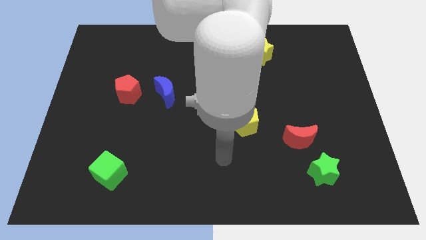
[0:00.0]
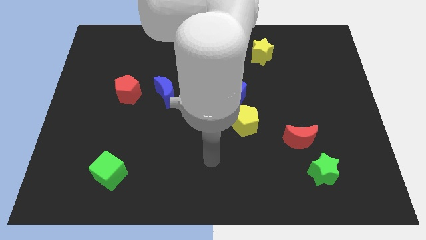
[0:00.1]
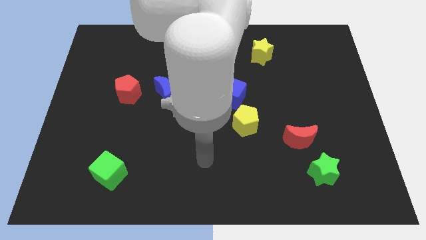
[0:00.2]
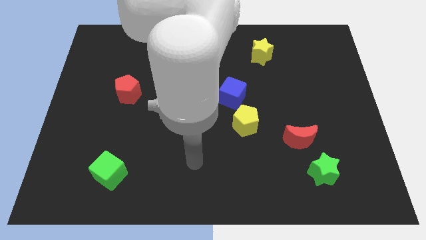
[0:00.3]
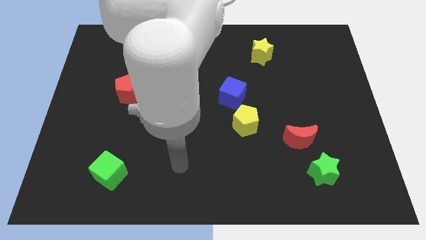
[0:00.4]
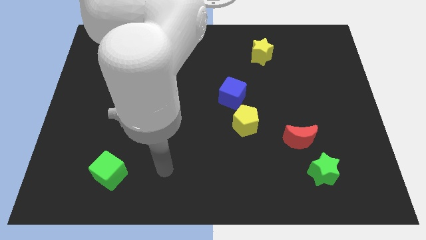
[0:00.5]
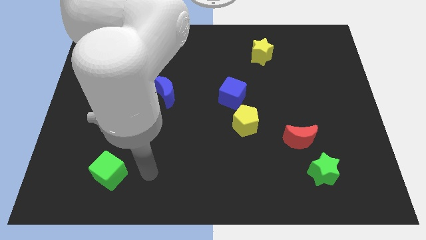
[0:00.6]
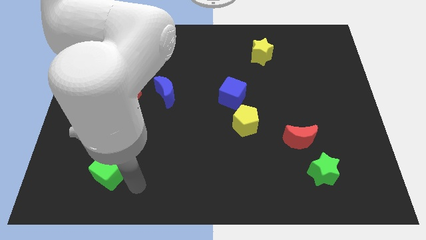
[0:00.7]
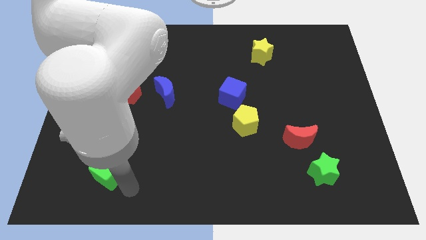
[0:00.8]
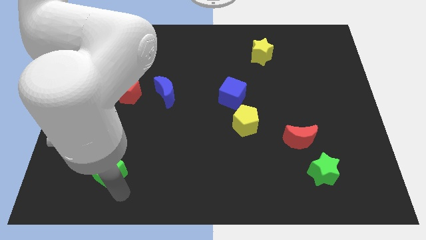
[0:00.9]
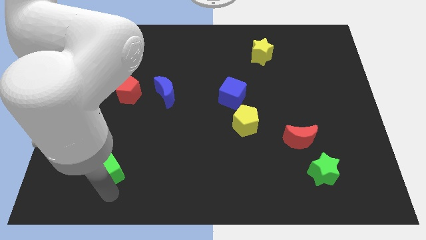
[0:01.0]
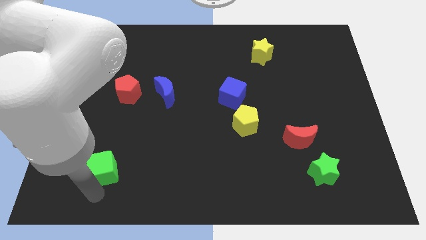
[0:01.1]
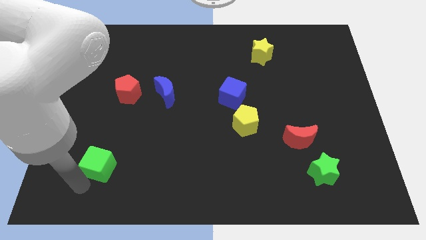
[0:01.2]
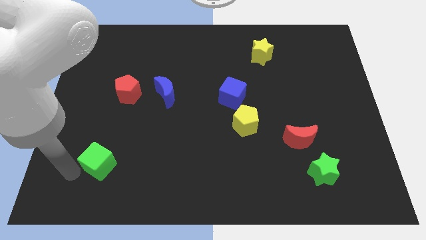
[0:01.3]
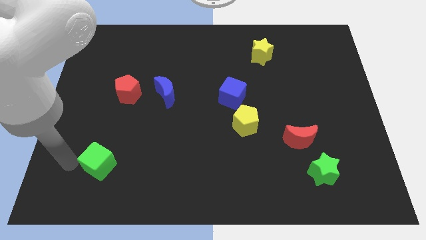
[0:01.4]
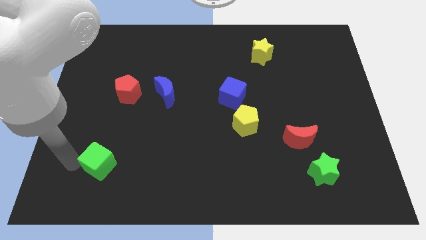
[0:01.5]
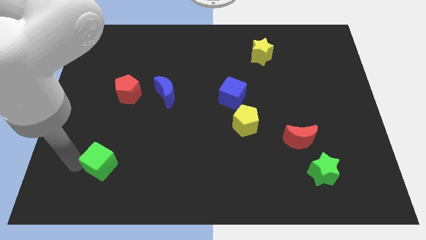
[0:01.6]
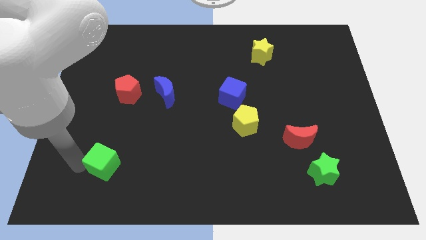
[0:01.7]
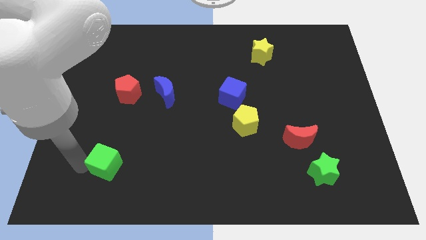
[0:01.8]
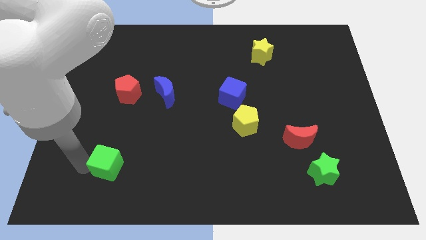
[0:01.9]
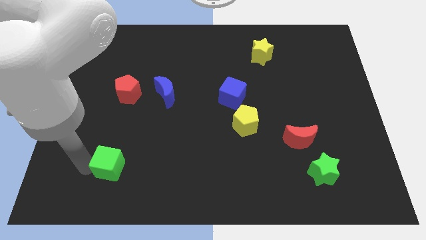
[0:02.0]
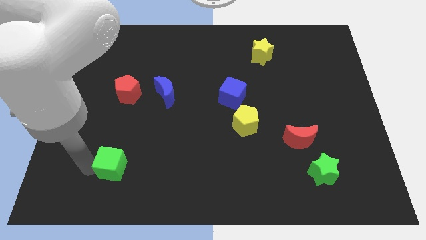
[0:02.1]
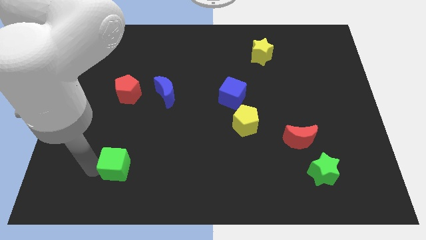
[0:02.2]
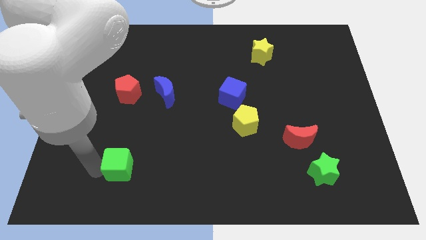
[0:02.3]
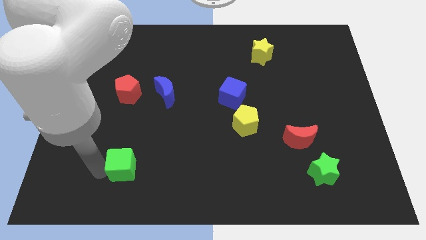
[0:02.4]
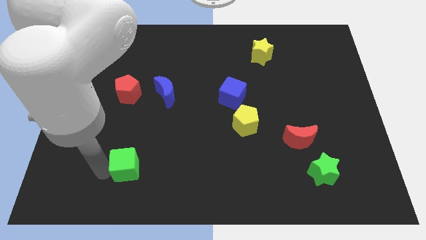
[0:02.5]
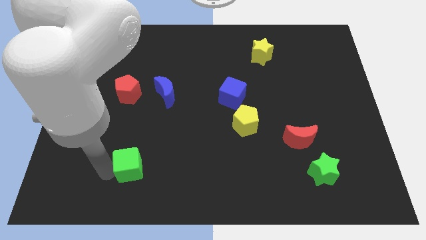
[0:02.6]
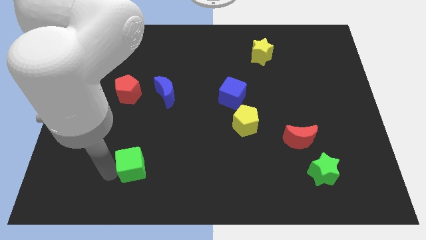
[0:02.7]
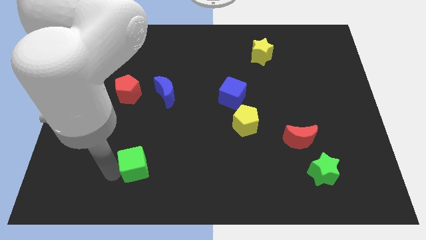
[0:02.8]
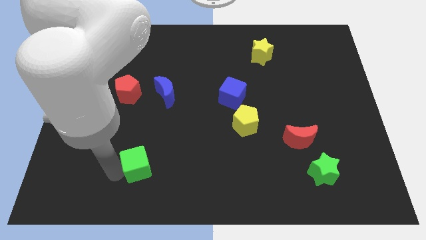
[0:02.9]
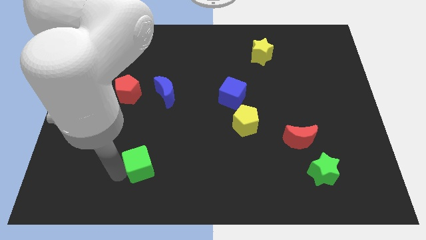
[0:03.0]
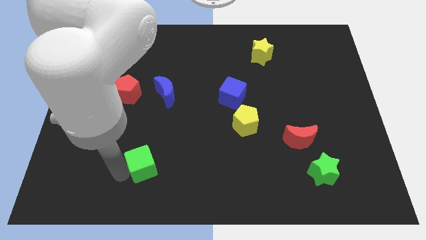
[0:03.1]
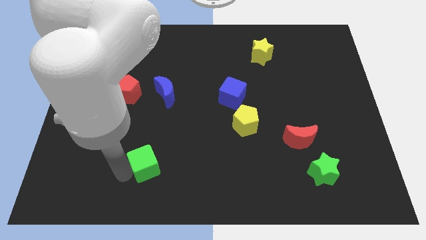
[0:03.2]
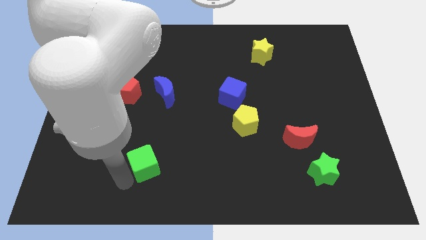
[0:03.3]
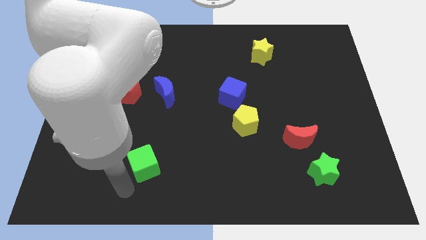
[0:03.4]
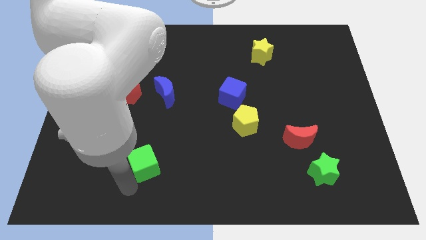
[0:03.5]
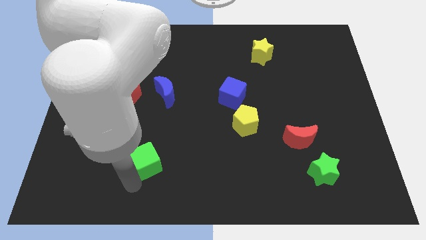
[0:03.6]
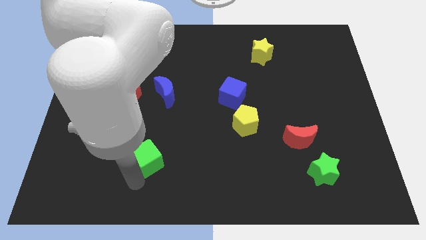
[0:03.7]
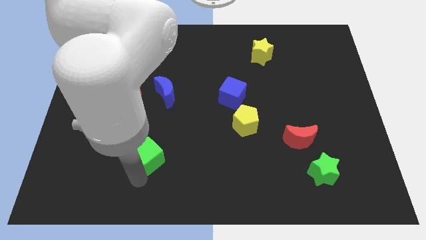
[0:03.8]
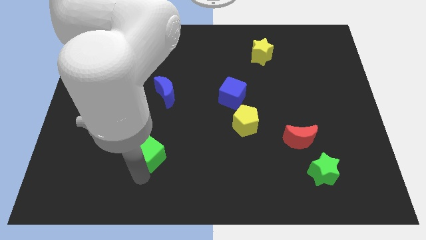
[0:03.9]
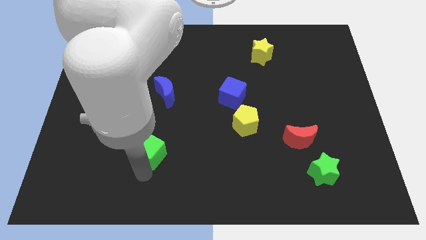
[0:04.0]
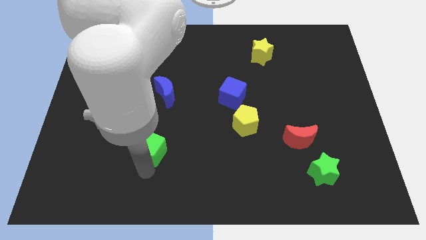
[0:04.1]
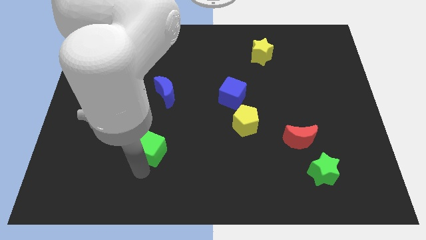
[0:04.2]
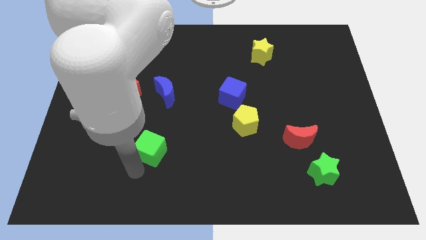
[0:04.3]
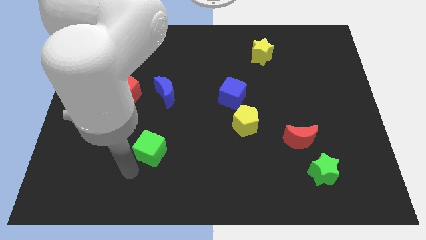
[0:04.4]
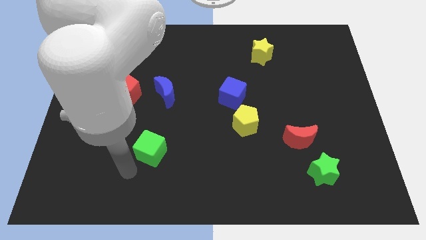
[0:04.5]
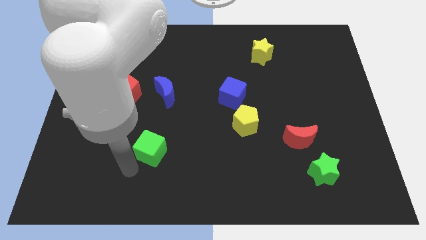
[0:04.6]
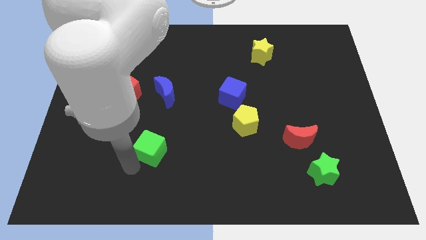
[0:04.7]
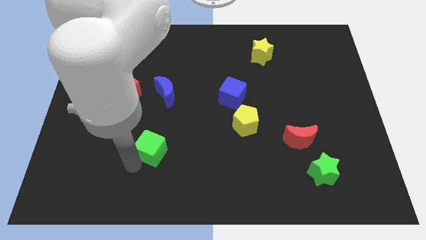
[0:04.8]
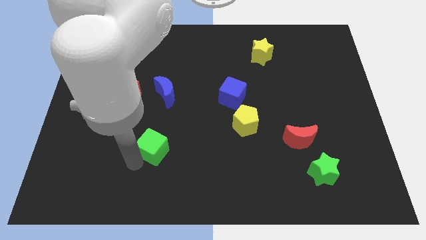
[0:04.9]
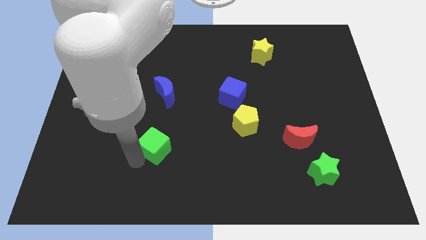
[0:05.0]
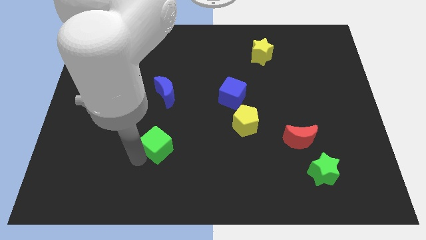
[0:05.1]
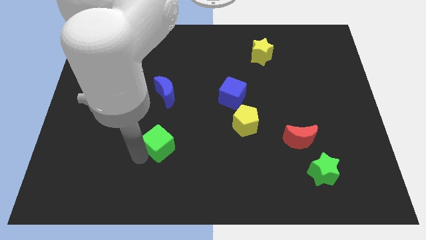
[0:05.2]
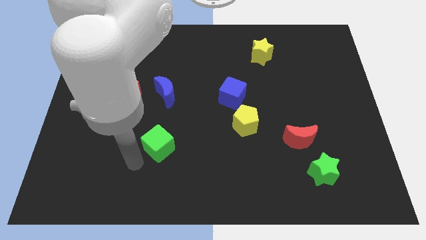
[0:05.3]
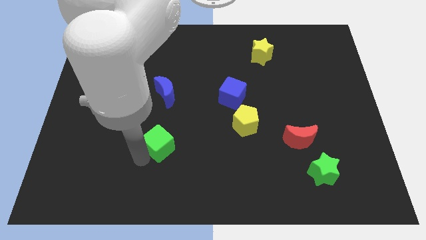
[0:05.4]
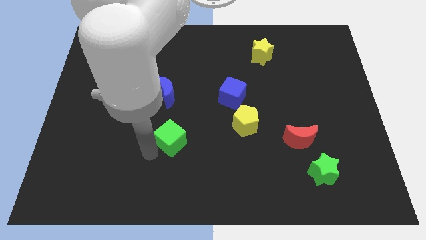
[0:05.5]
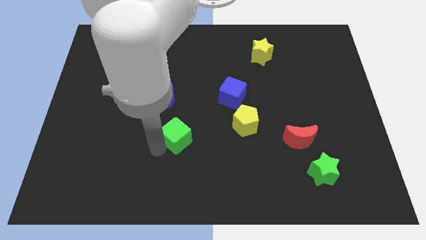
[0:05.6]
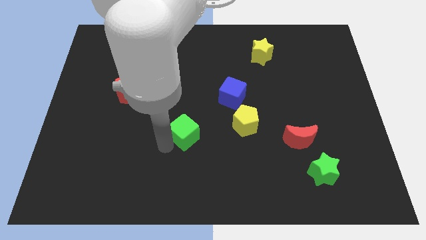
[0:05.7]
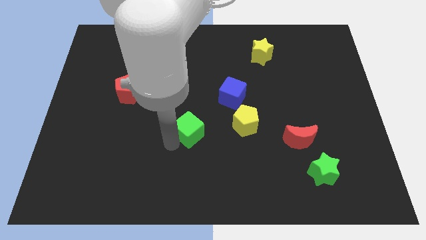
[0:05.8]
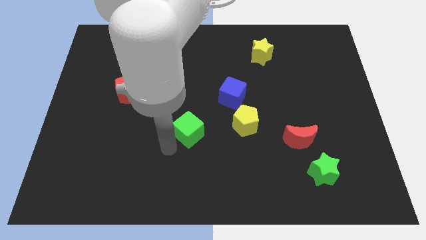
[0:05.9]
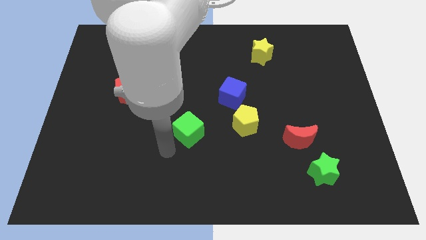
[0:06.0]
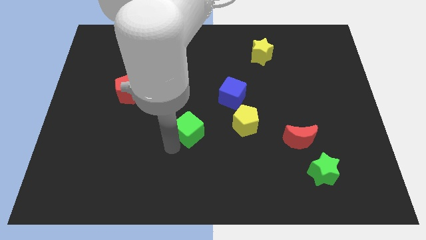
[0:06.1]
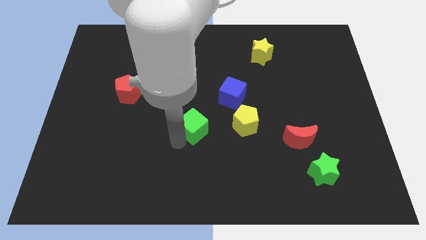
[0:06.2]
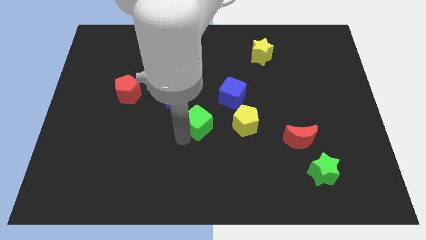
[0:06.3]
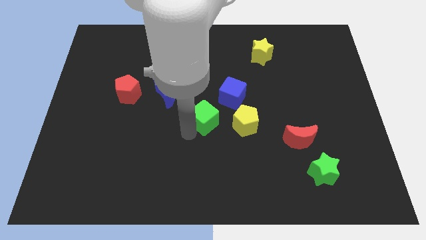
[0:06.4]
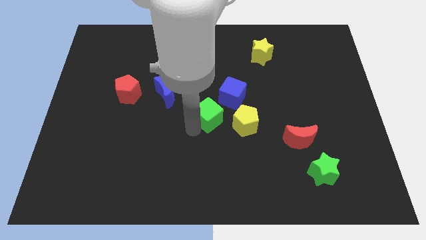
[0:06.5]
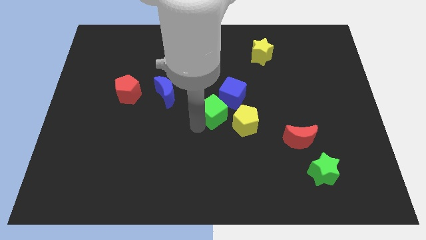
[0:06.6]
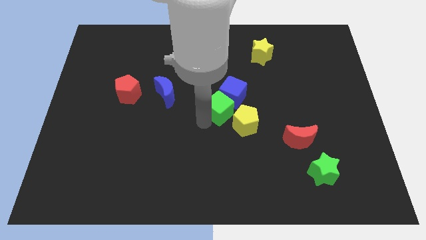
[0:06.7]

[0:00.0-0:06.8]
put the green cube next to the blue cube

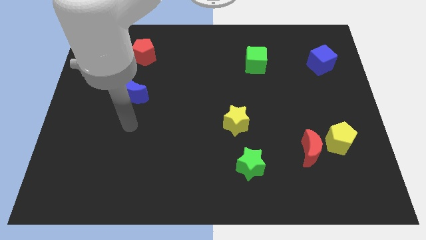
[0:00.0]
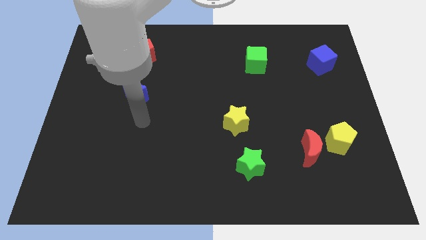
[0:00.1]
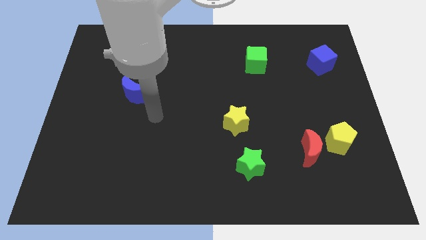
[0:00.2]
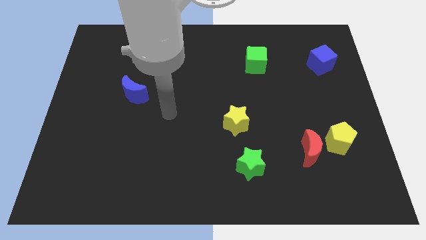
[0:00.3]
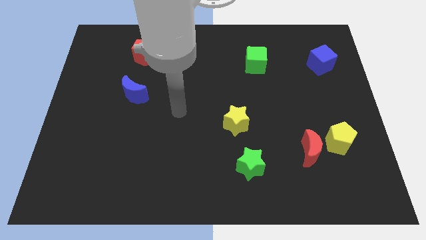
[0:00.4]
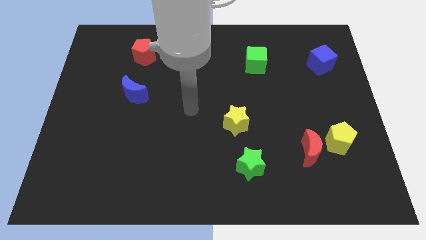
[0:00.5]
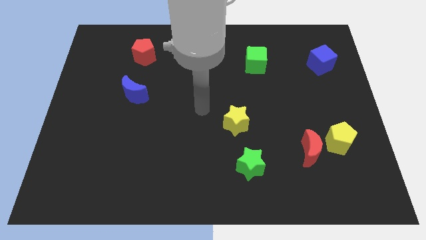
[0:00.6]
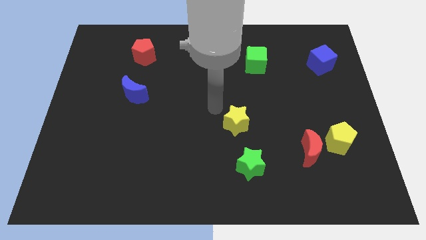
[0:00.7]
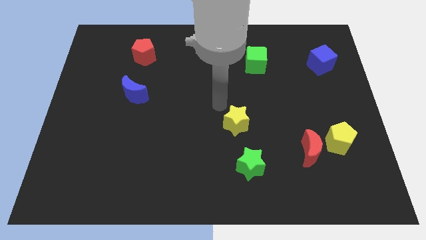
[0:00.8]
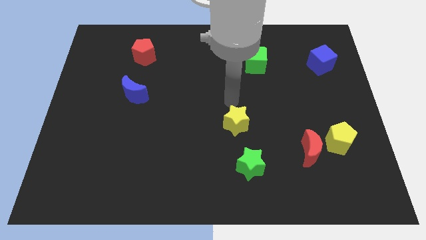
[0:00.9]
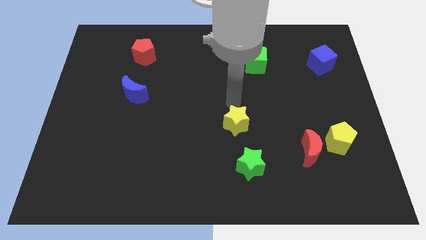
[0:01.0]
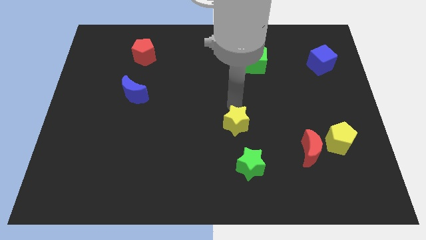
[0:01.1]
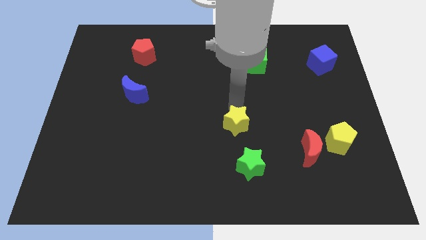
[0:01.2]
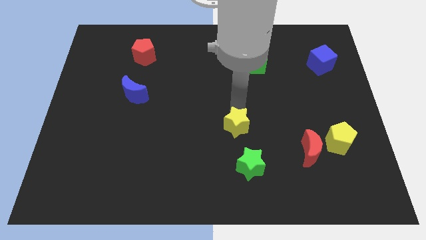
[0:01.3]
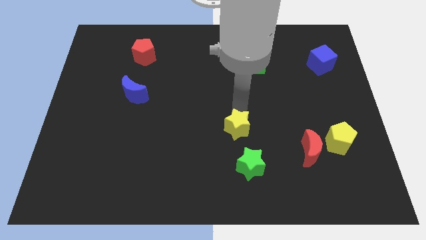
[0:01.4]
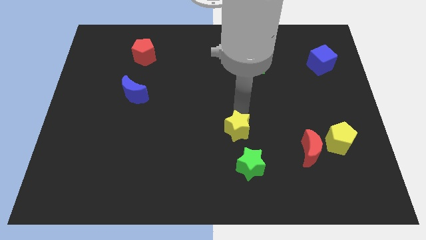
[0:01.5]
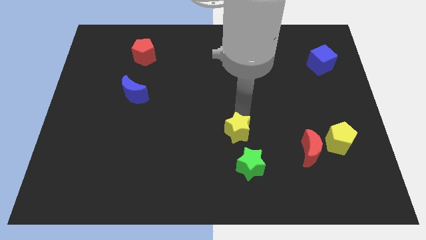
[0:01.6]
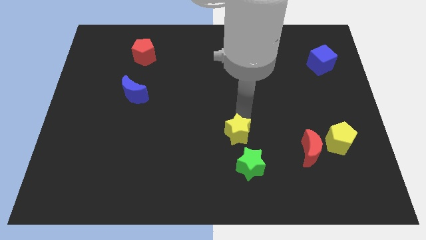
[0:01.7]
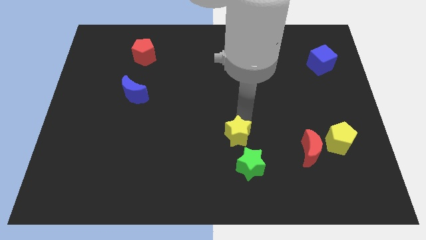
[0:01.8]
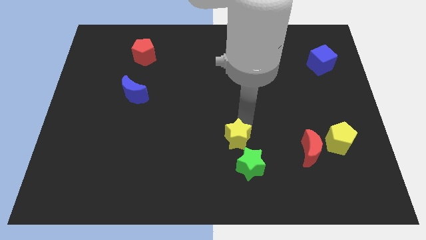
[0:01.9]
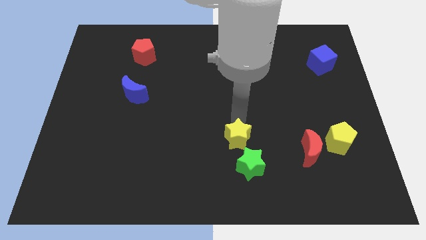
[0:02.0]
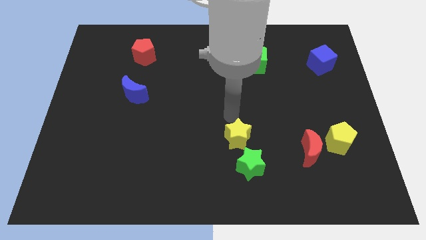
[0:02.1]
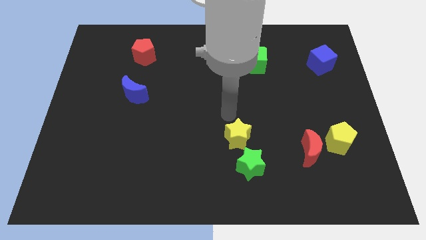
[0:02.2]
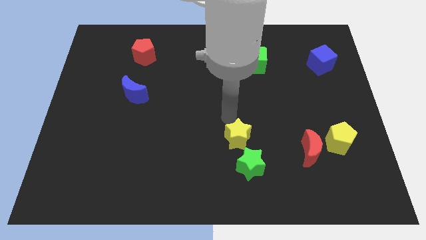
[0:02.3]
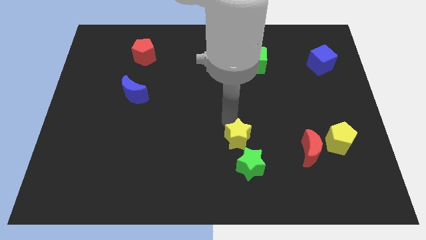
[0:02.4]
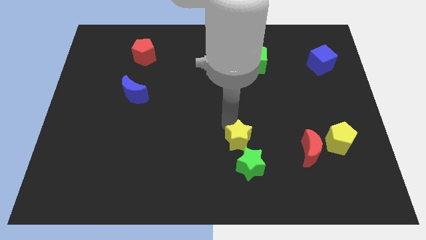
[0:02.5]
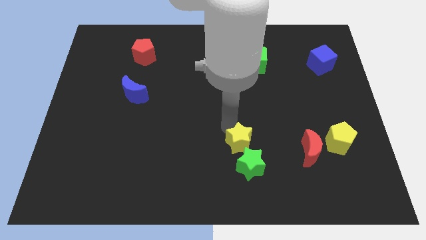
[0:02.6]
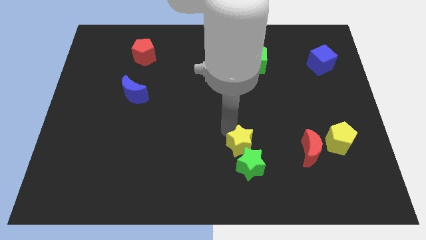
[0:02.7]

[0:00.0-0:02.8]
move the yellow star to the green star
